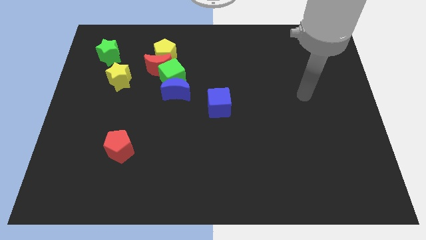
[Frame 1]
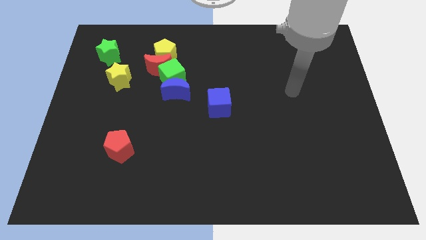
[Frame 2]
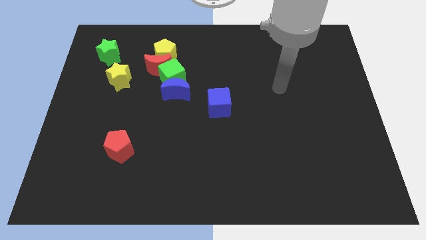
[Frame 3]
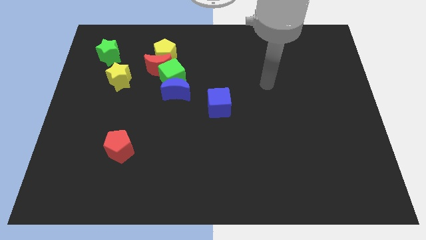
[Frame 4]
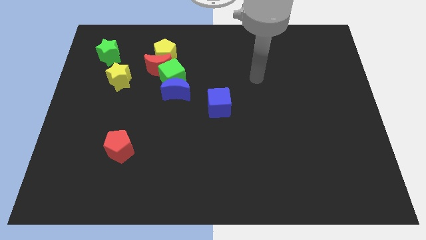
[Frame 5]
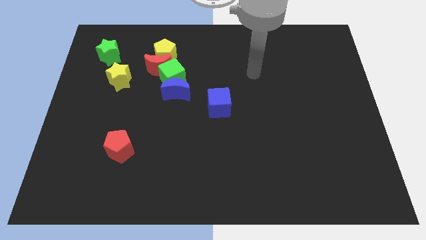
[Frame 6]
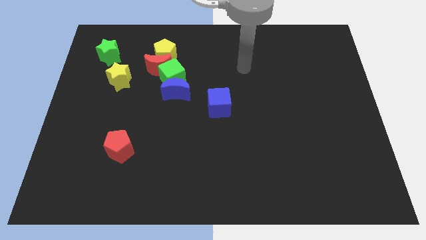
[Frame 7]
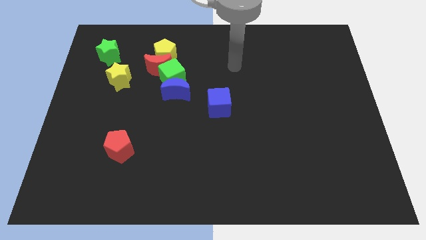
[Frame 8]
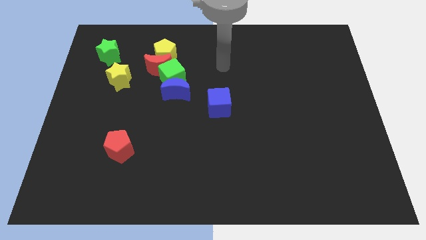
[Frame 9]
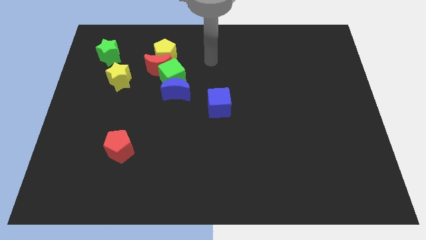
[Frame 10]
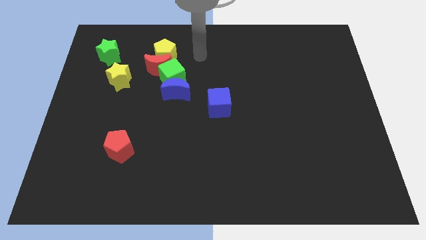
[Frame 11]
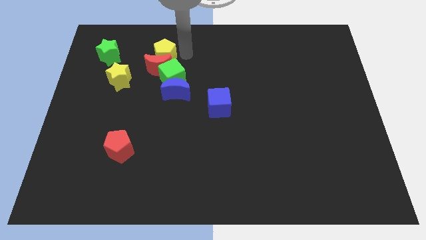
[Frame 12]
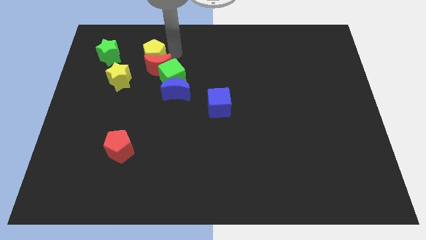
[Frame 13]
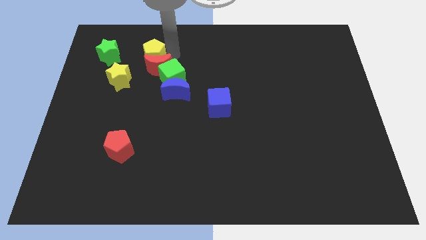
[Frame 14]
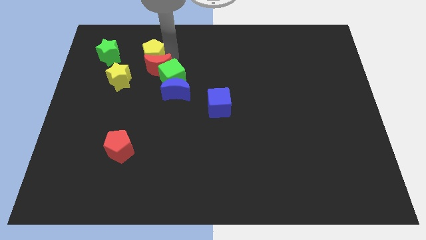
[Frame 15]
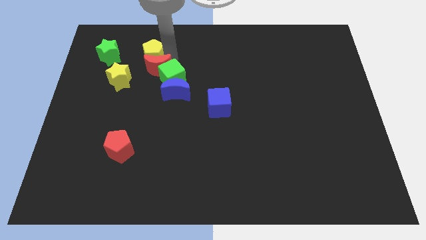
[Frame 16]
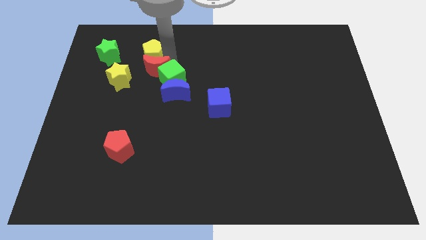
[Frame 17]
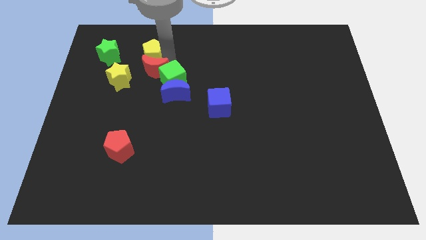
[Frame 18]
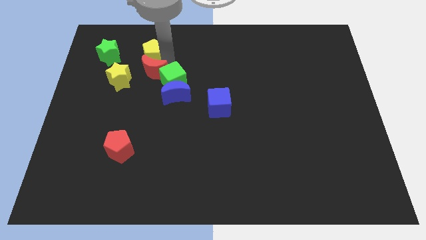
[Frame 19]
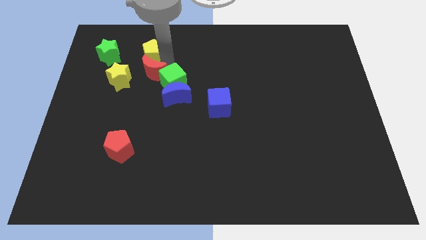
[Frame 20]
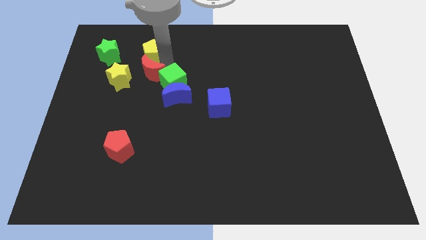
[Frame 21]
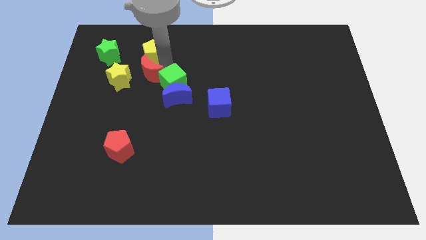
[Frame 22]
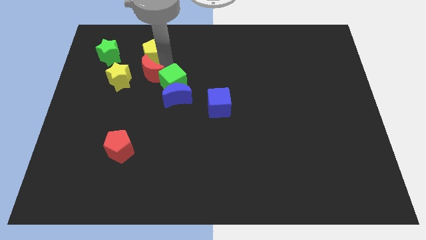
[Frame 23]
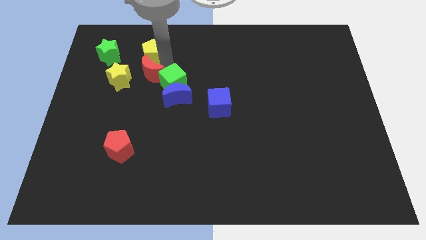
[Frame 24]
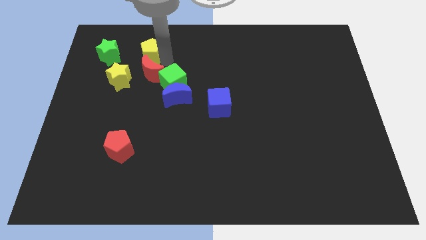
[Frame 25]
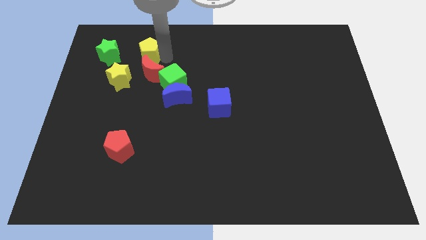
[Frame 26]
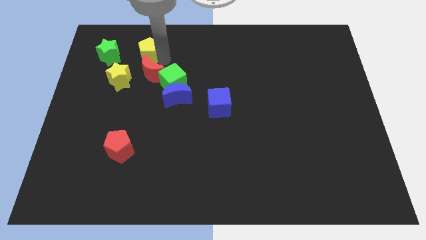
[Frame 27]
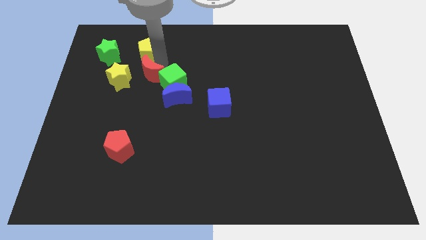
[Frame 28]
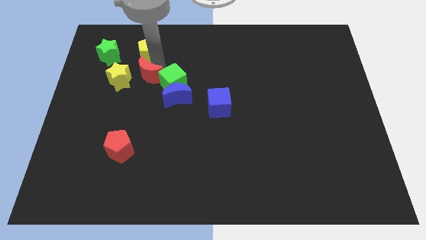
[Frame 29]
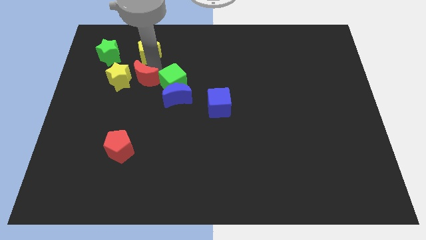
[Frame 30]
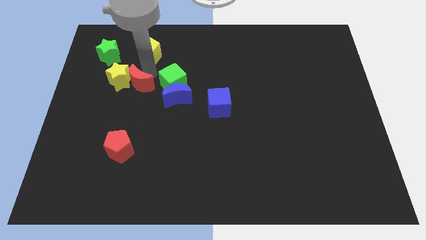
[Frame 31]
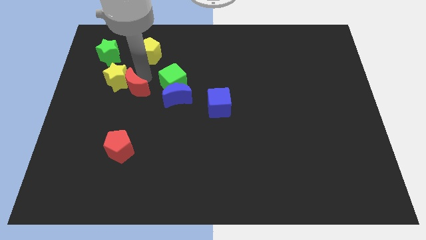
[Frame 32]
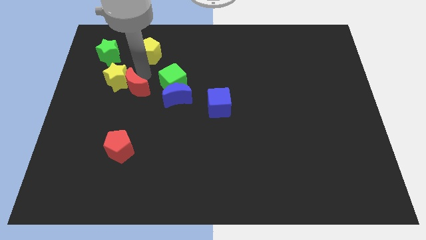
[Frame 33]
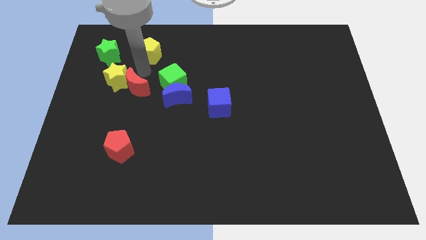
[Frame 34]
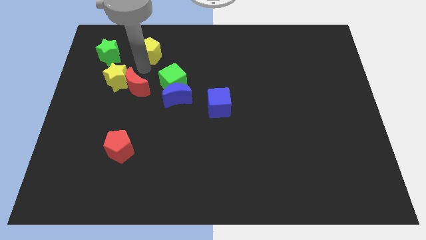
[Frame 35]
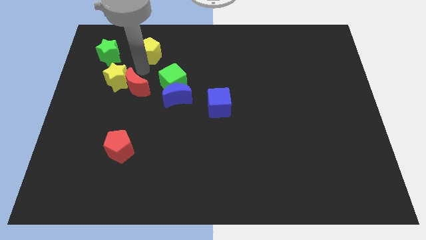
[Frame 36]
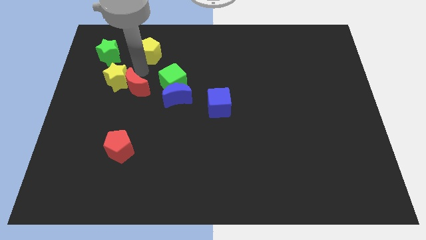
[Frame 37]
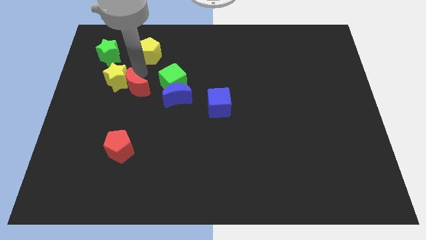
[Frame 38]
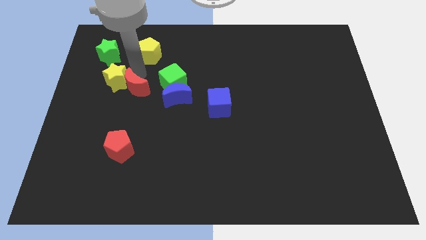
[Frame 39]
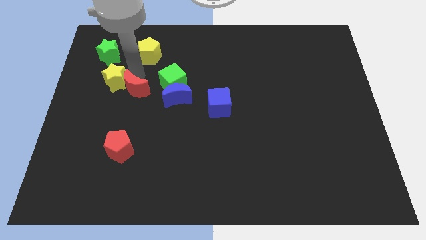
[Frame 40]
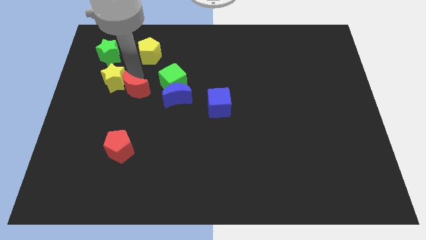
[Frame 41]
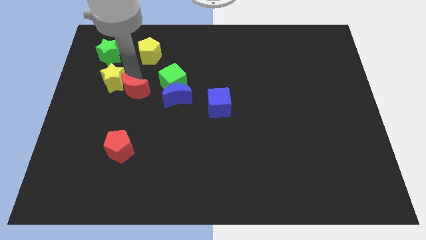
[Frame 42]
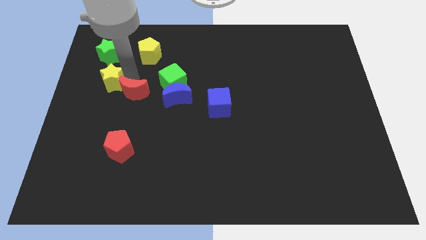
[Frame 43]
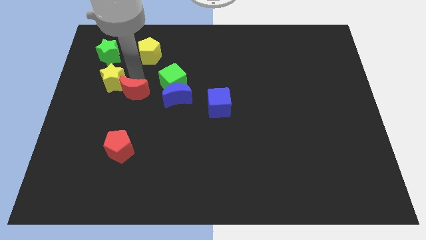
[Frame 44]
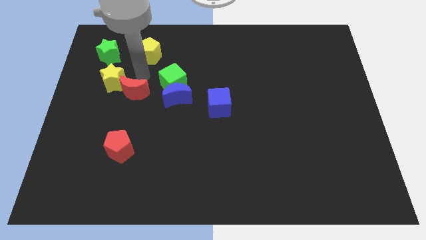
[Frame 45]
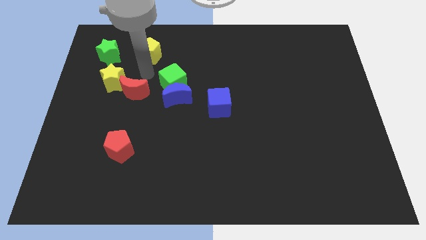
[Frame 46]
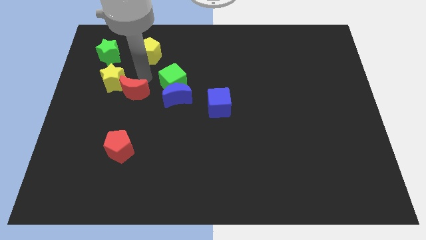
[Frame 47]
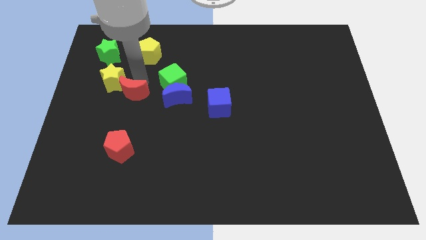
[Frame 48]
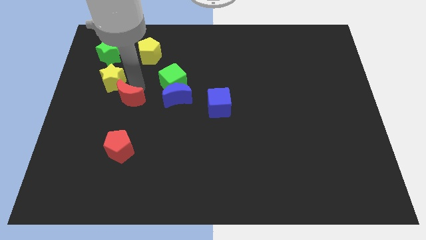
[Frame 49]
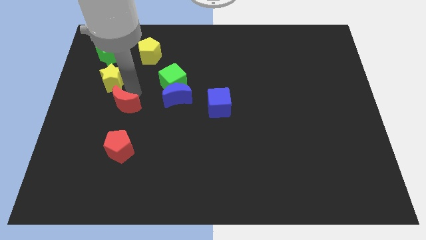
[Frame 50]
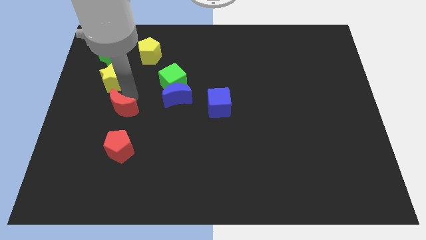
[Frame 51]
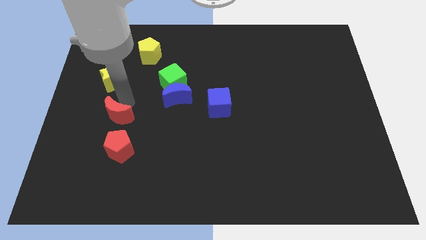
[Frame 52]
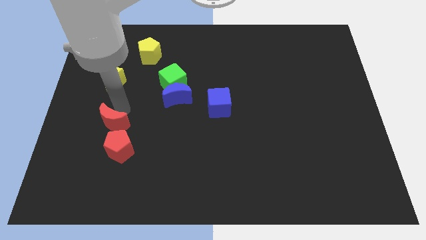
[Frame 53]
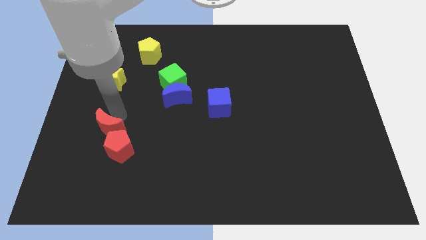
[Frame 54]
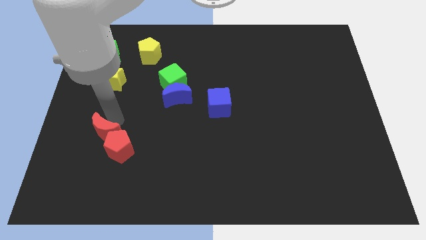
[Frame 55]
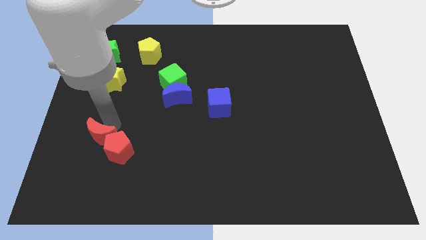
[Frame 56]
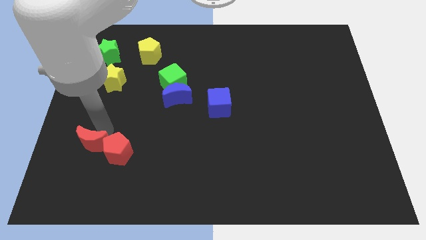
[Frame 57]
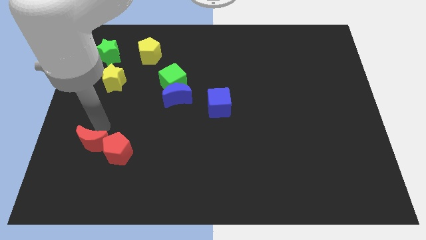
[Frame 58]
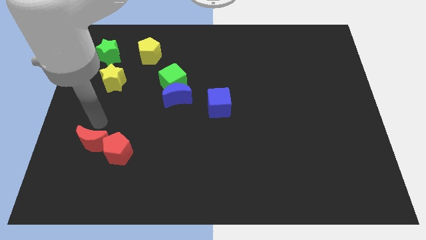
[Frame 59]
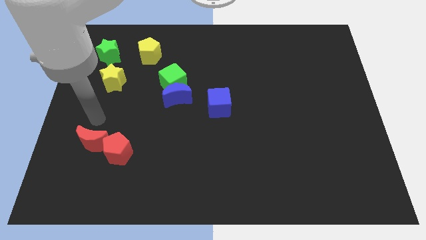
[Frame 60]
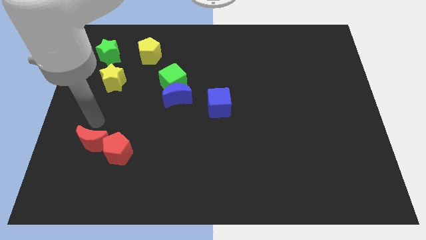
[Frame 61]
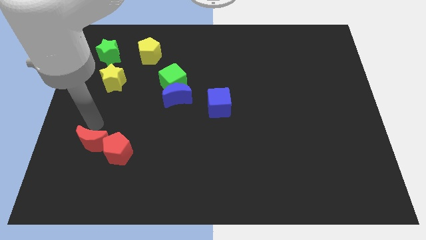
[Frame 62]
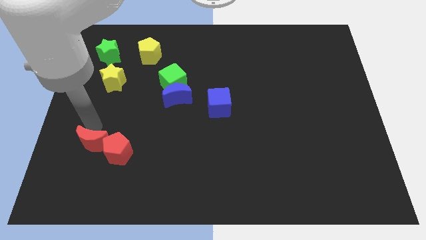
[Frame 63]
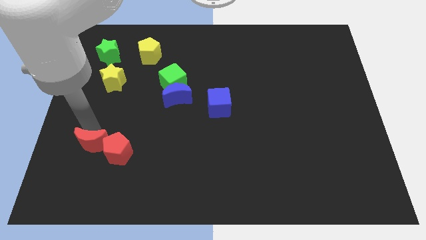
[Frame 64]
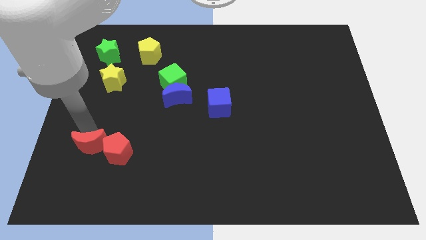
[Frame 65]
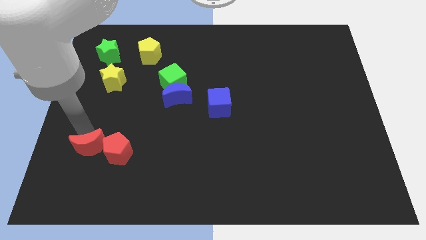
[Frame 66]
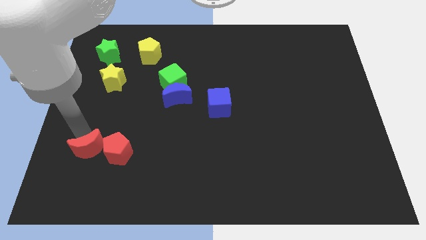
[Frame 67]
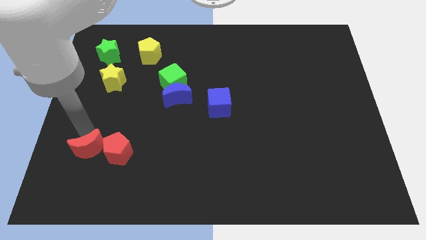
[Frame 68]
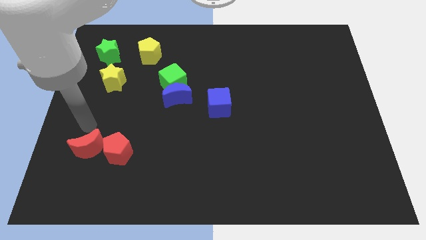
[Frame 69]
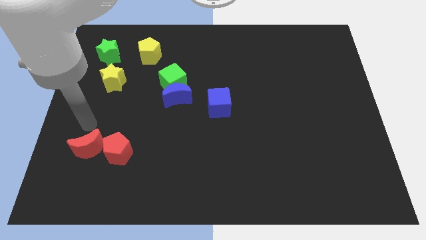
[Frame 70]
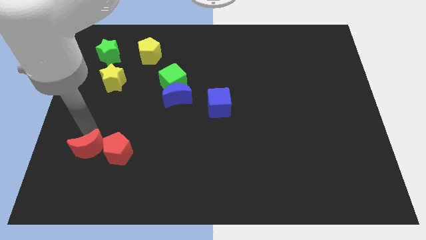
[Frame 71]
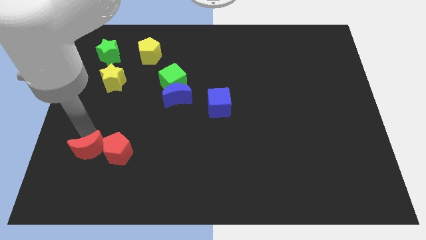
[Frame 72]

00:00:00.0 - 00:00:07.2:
push the red moon to the bottom left side of the red pentagon
